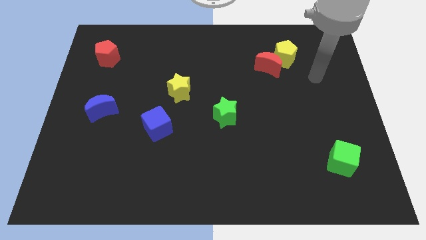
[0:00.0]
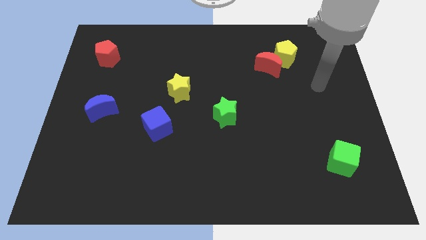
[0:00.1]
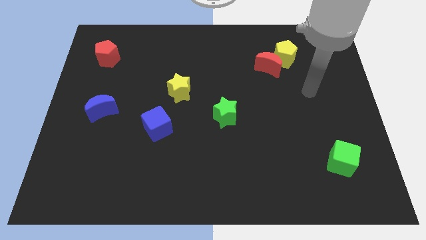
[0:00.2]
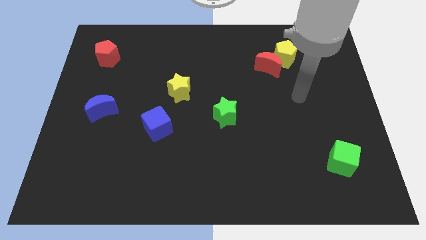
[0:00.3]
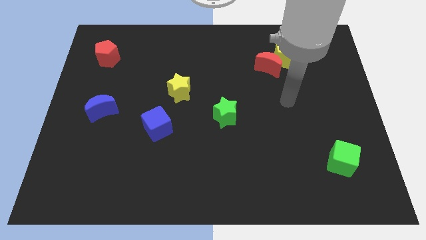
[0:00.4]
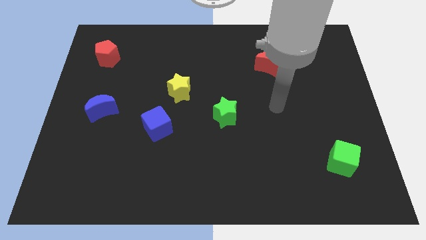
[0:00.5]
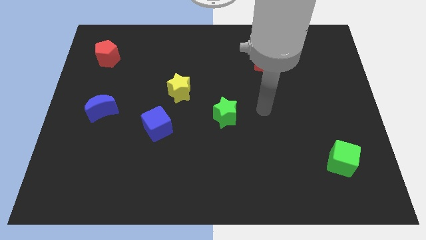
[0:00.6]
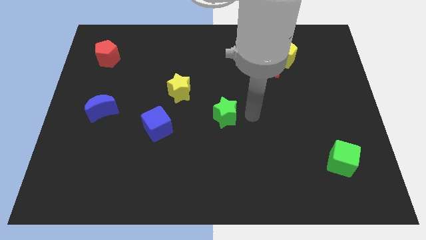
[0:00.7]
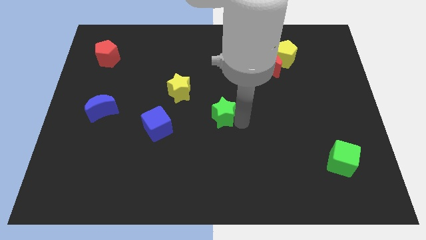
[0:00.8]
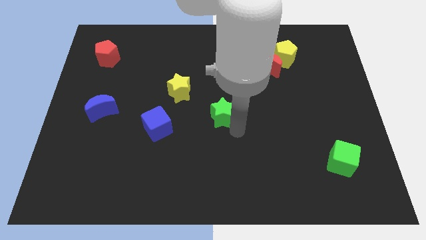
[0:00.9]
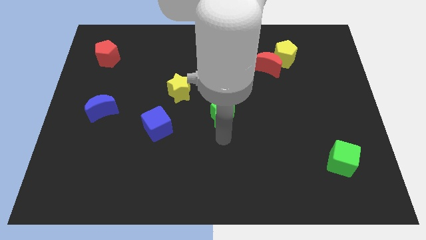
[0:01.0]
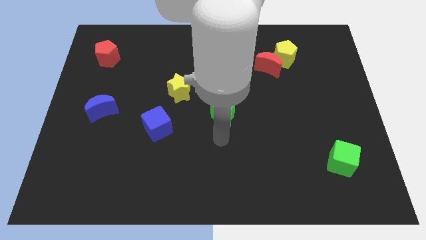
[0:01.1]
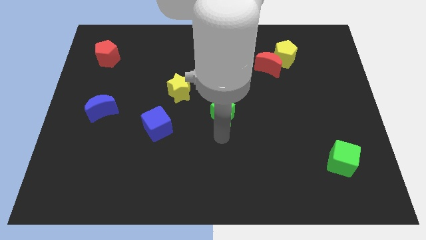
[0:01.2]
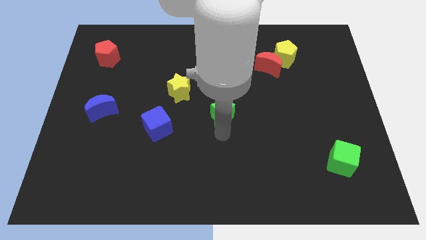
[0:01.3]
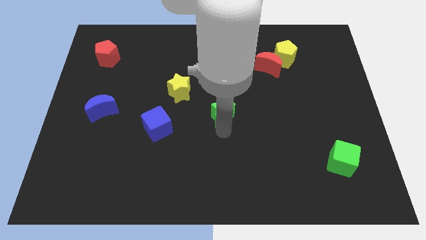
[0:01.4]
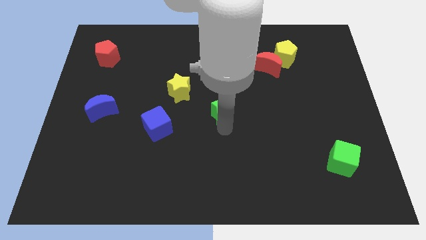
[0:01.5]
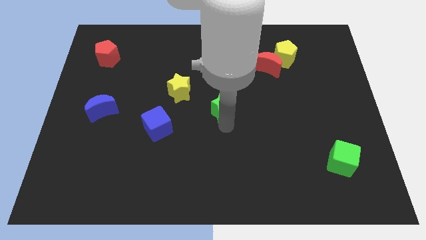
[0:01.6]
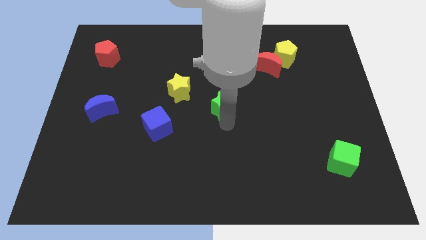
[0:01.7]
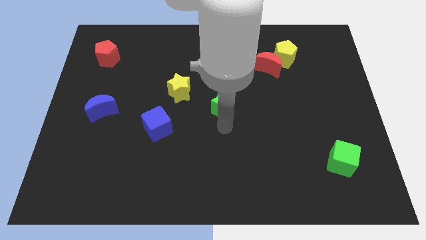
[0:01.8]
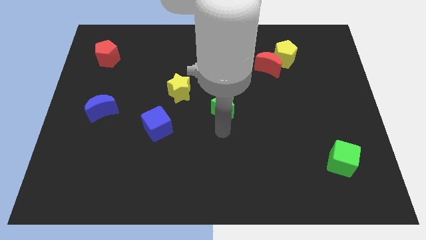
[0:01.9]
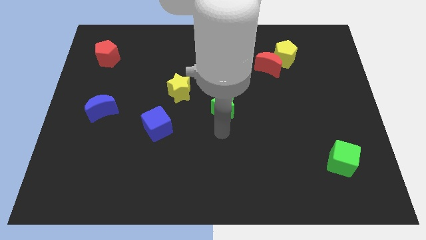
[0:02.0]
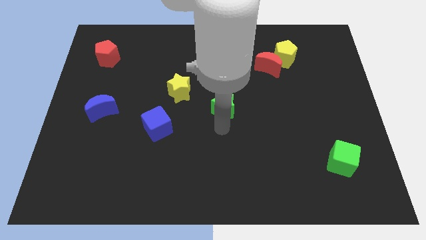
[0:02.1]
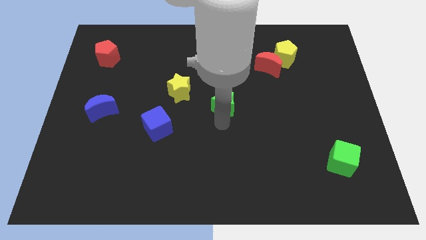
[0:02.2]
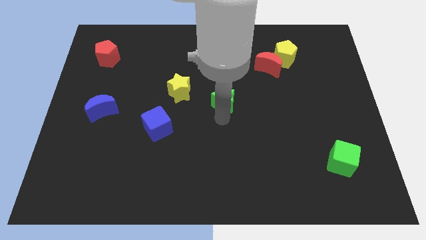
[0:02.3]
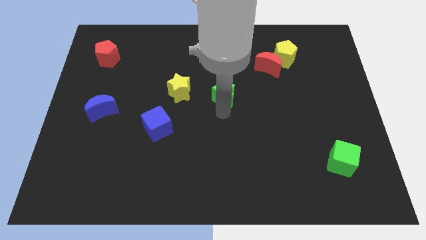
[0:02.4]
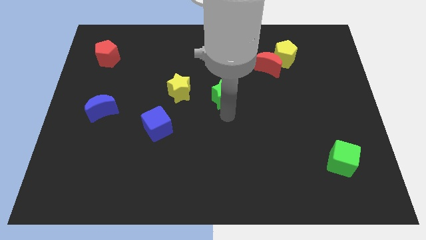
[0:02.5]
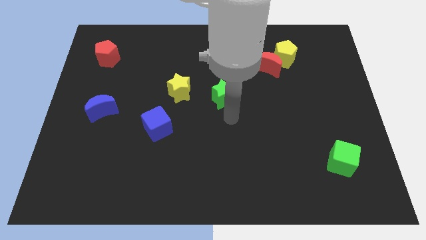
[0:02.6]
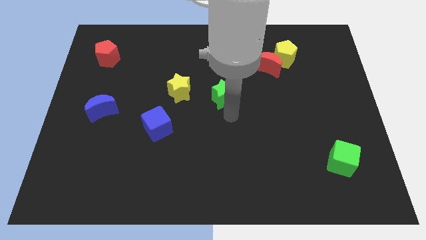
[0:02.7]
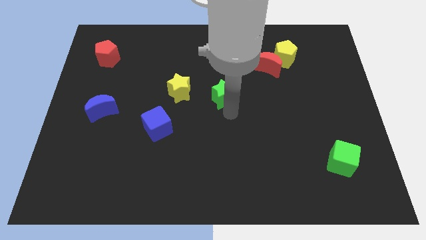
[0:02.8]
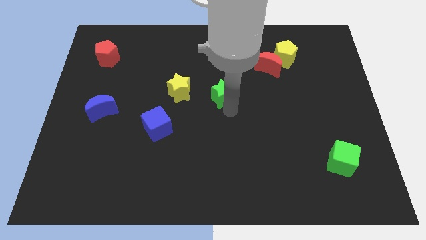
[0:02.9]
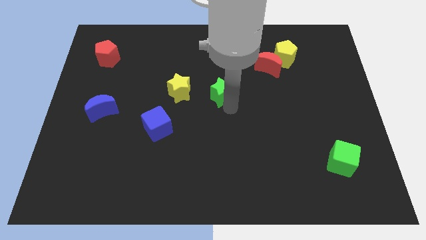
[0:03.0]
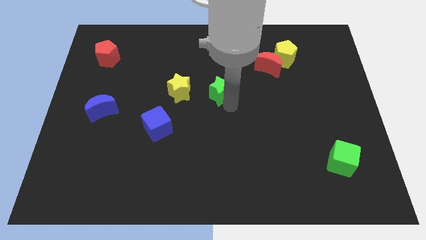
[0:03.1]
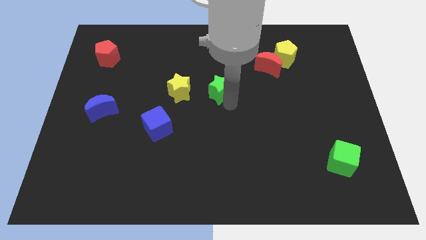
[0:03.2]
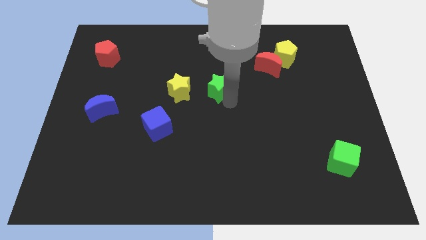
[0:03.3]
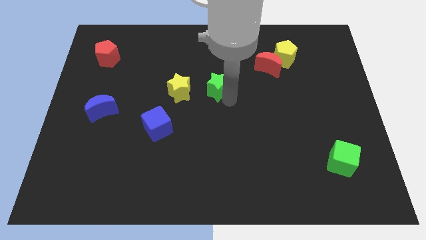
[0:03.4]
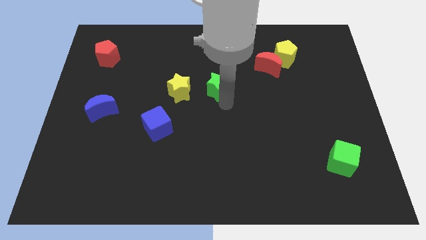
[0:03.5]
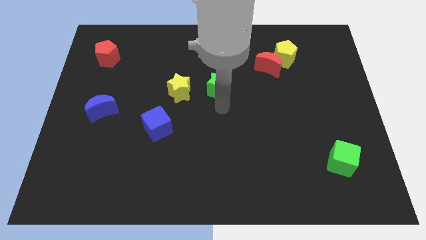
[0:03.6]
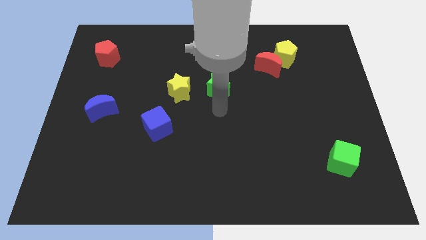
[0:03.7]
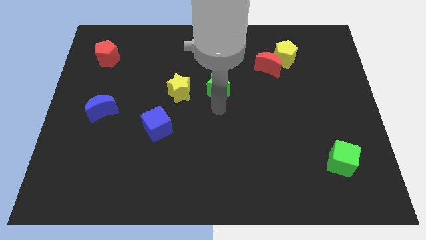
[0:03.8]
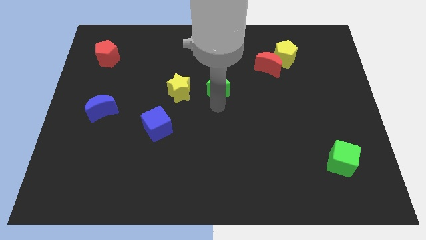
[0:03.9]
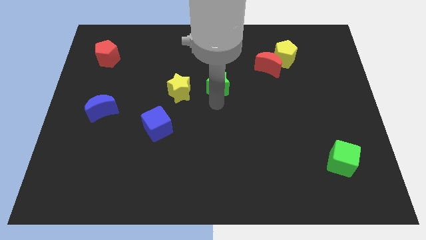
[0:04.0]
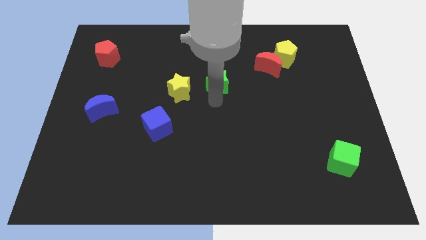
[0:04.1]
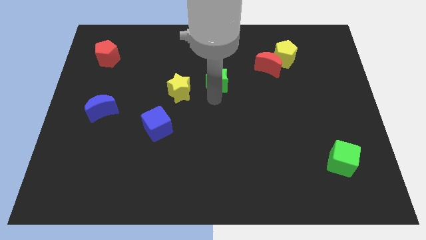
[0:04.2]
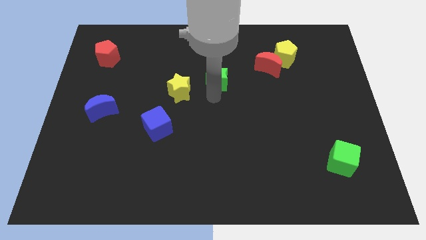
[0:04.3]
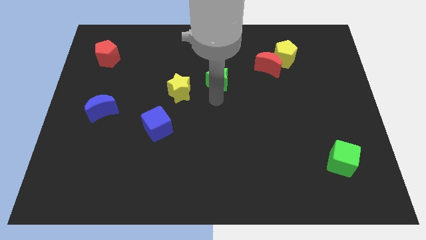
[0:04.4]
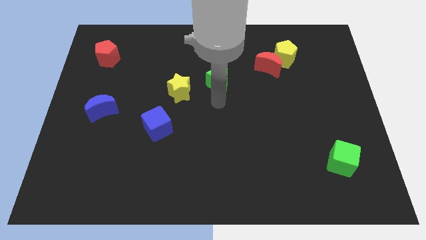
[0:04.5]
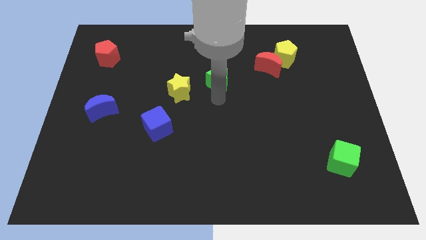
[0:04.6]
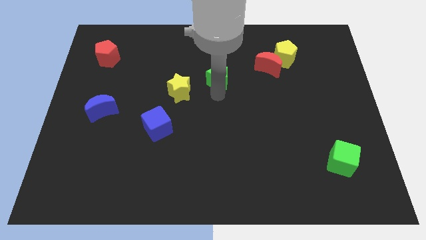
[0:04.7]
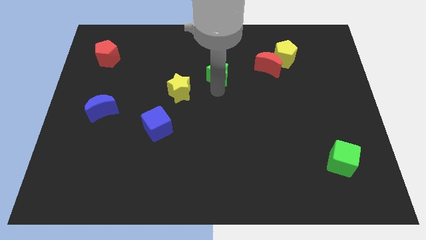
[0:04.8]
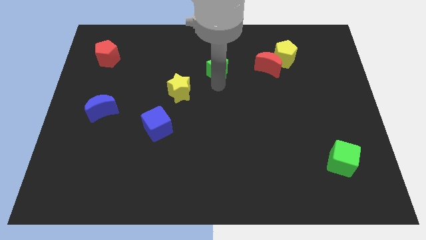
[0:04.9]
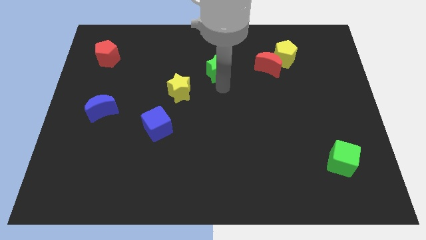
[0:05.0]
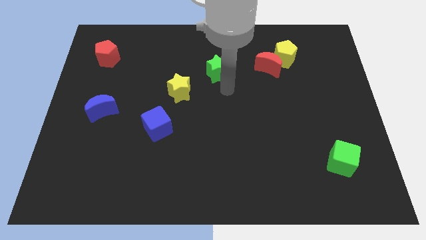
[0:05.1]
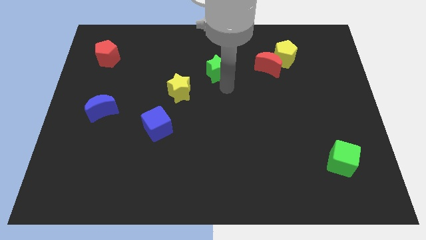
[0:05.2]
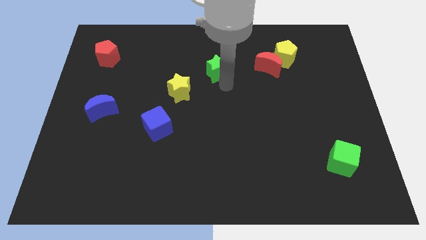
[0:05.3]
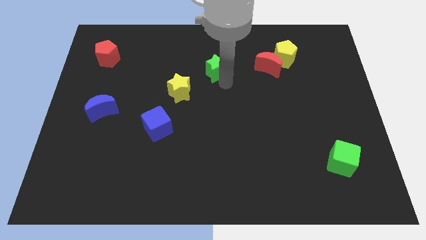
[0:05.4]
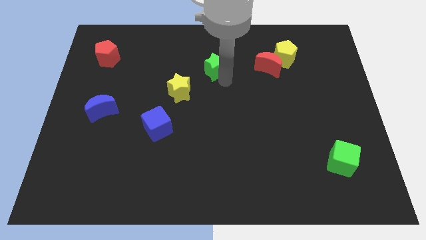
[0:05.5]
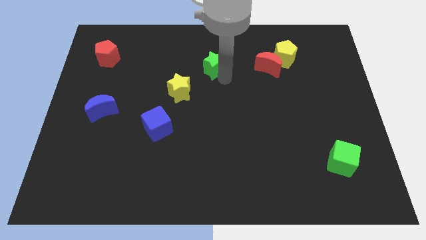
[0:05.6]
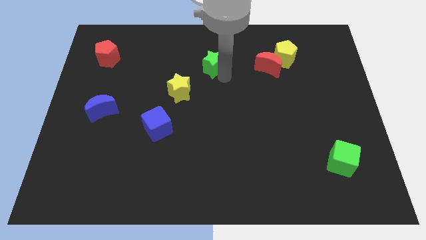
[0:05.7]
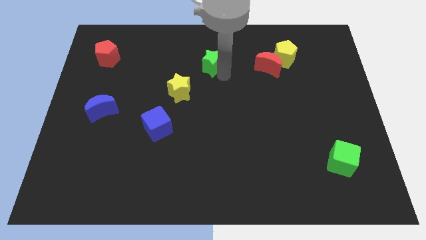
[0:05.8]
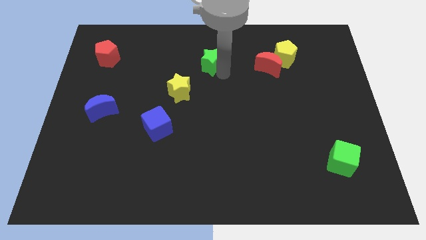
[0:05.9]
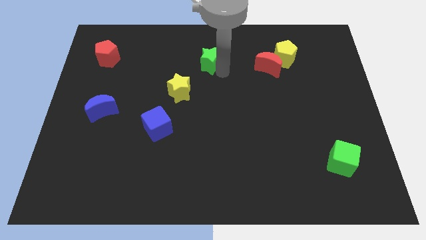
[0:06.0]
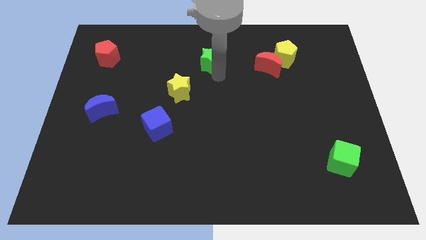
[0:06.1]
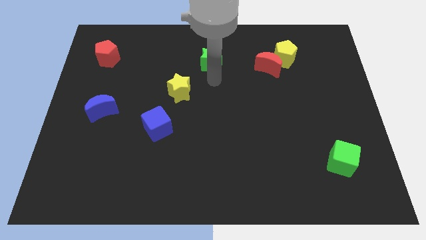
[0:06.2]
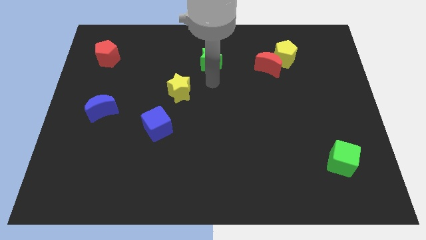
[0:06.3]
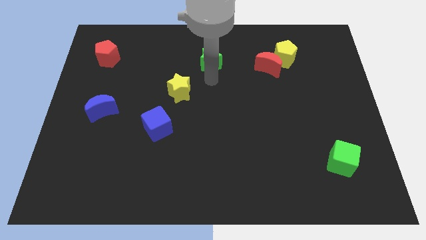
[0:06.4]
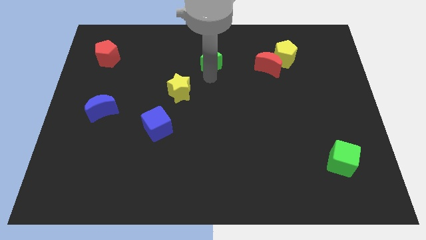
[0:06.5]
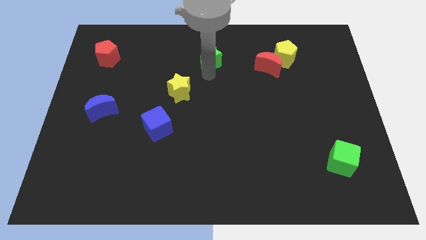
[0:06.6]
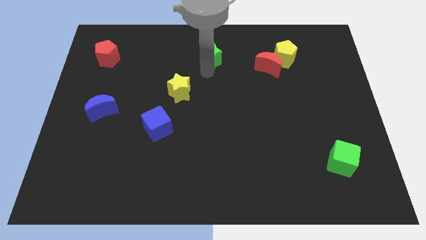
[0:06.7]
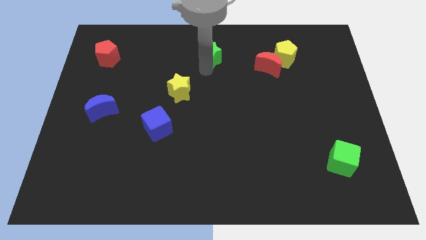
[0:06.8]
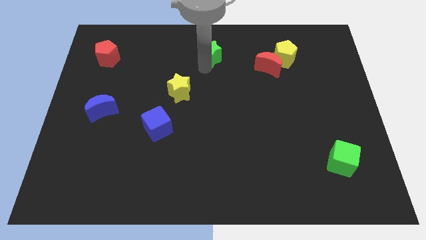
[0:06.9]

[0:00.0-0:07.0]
put the green star to the towards your base
